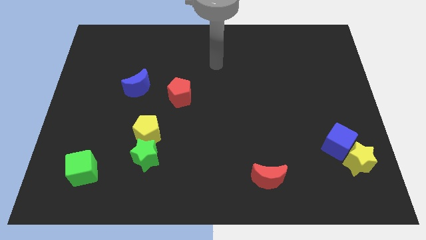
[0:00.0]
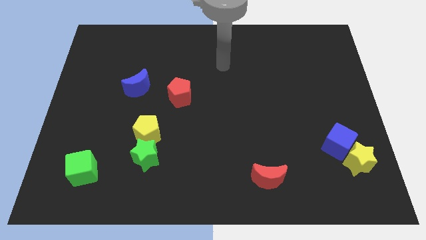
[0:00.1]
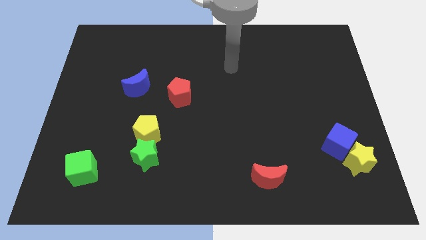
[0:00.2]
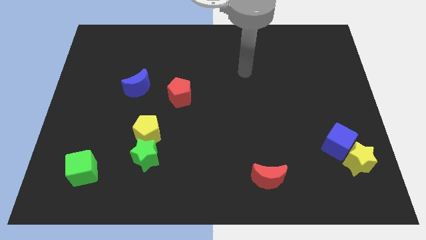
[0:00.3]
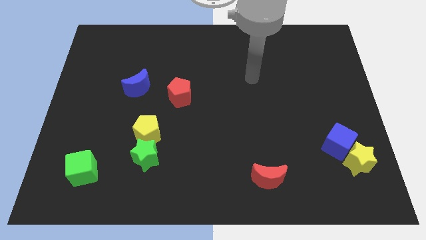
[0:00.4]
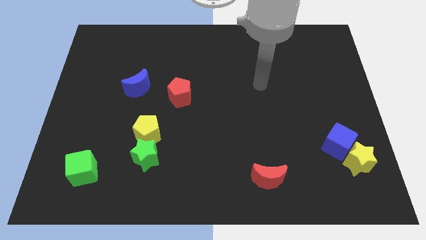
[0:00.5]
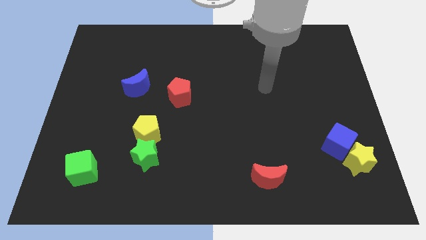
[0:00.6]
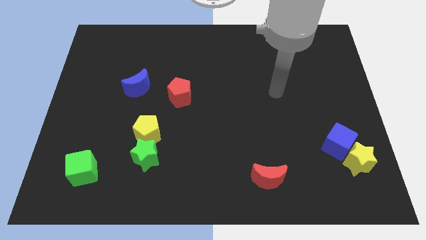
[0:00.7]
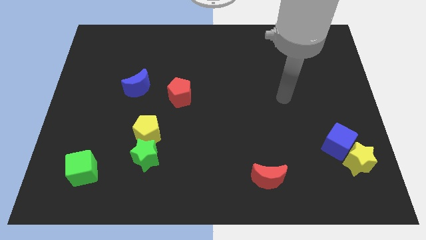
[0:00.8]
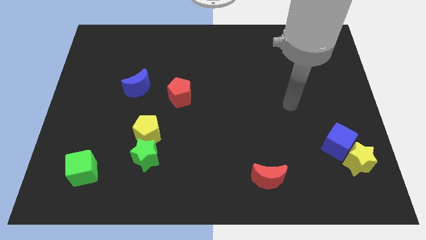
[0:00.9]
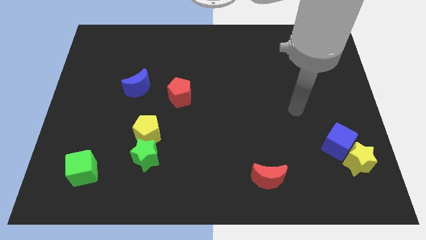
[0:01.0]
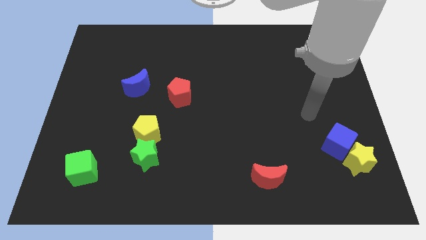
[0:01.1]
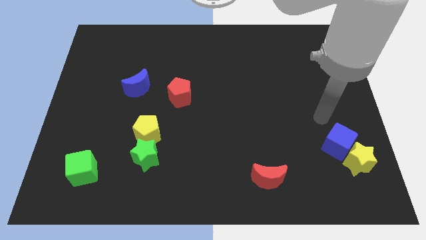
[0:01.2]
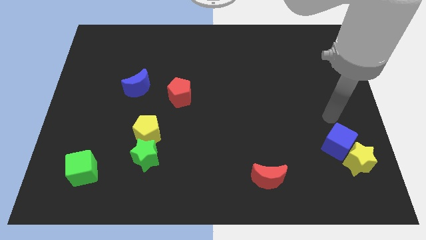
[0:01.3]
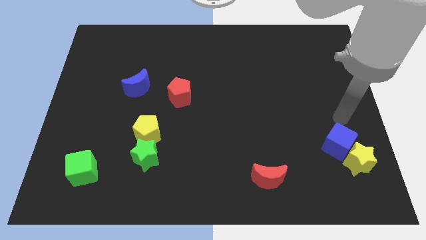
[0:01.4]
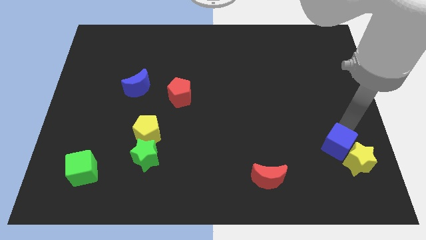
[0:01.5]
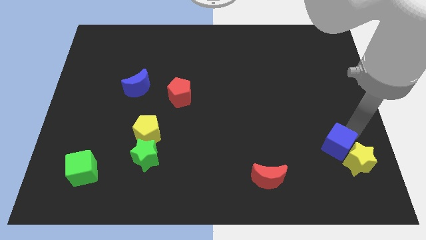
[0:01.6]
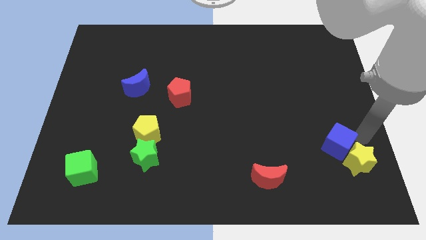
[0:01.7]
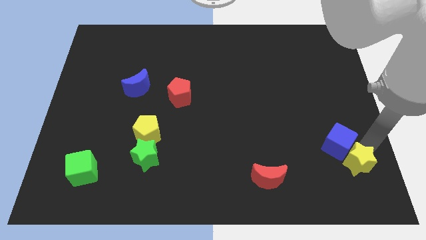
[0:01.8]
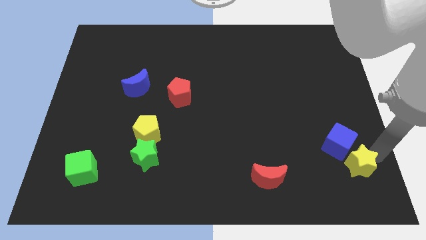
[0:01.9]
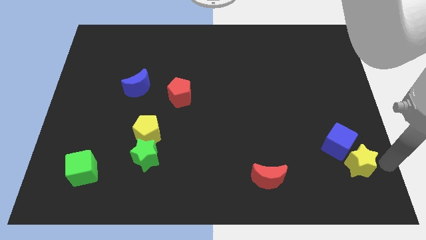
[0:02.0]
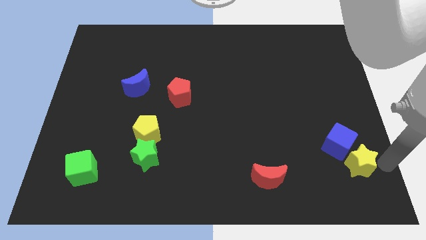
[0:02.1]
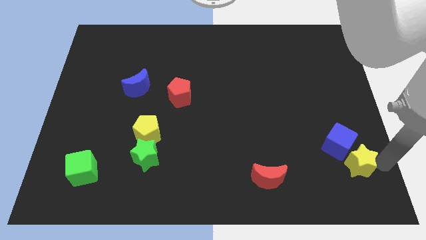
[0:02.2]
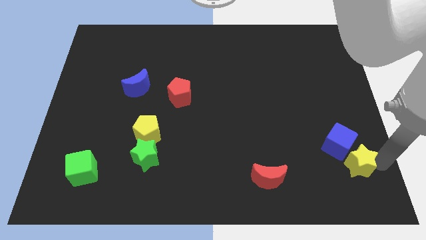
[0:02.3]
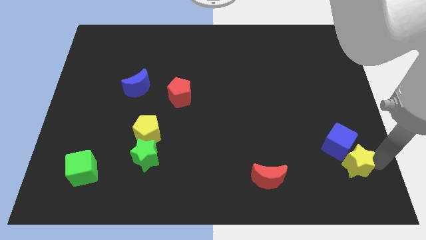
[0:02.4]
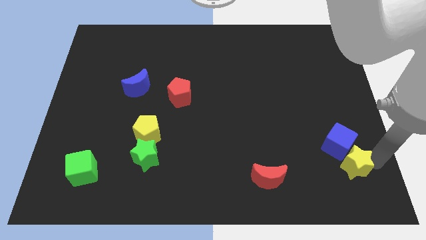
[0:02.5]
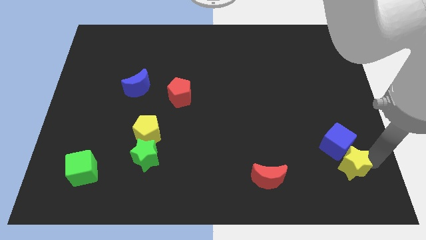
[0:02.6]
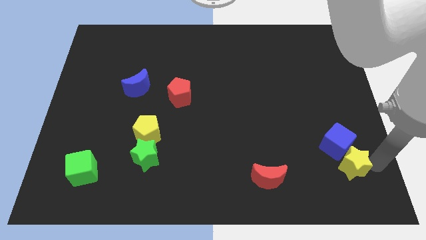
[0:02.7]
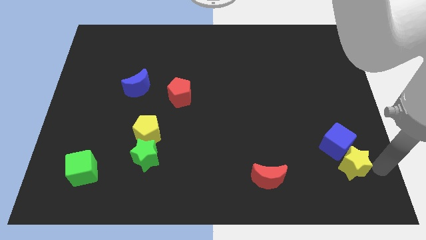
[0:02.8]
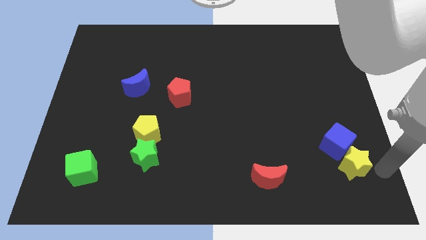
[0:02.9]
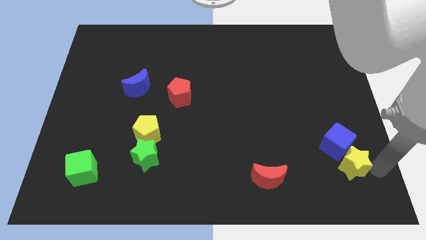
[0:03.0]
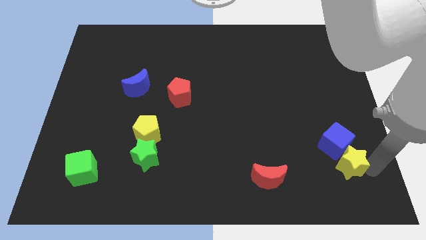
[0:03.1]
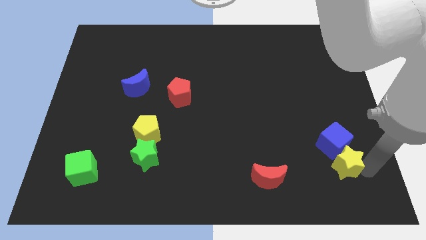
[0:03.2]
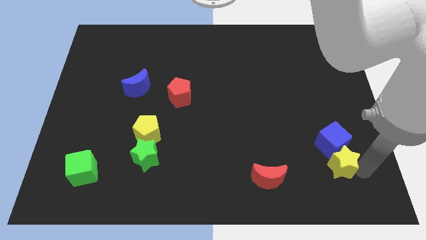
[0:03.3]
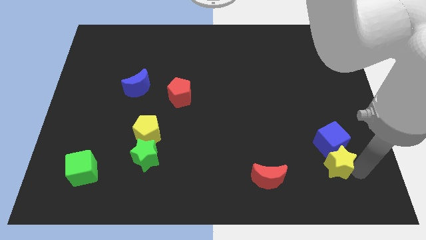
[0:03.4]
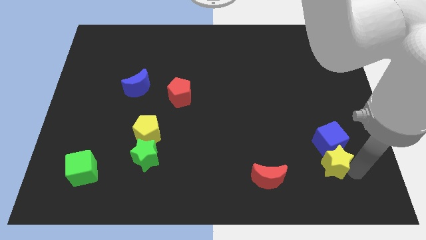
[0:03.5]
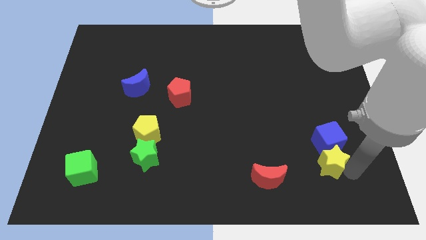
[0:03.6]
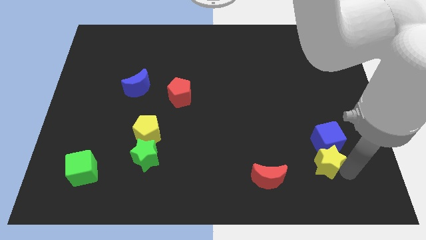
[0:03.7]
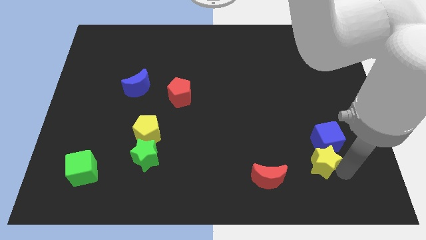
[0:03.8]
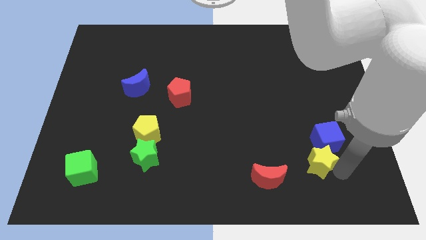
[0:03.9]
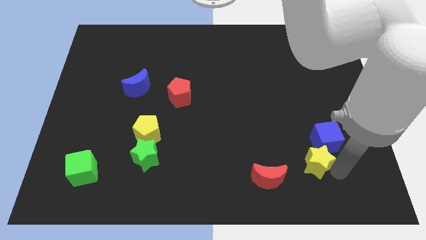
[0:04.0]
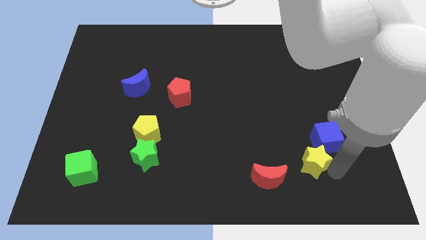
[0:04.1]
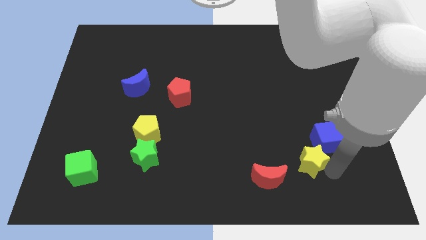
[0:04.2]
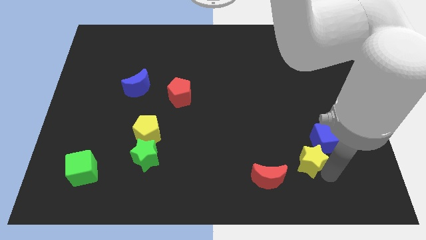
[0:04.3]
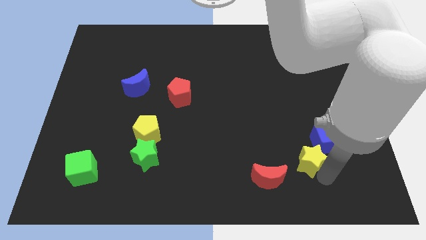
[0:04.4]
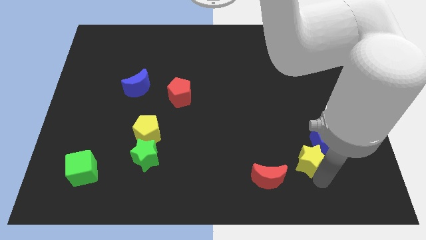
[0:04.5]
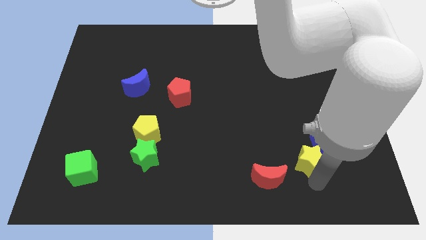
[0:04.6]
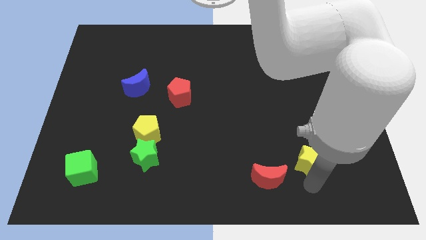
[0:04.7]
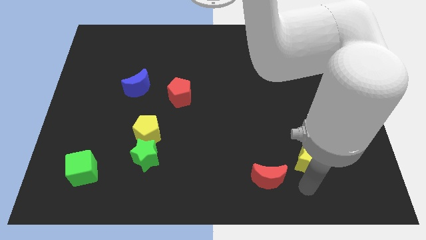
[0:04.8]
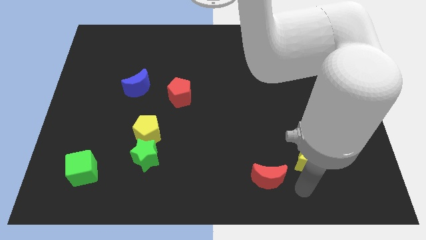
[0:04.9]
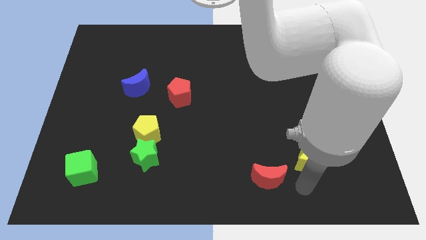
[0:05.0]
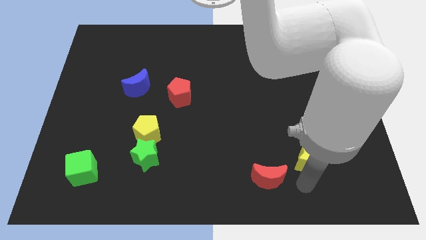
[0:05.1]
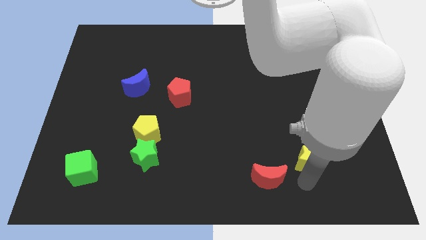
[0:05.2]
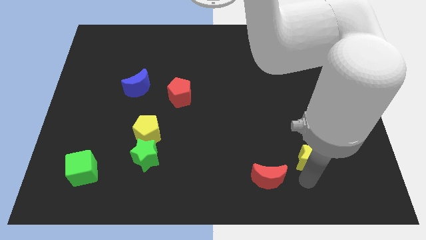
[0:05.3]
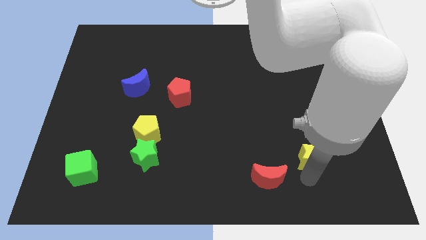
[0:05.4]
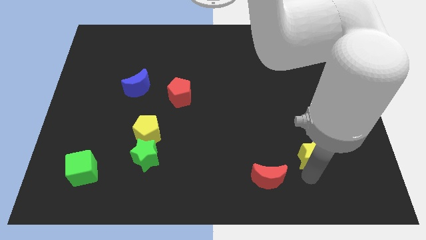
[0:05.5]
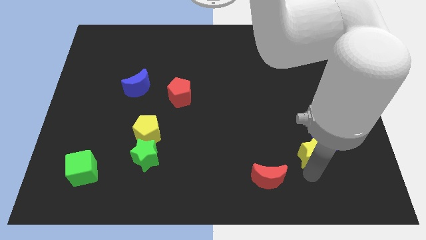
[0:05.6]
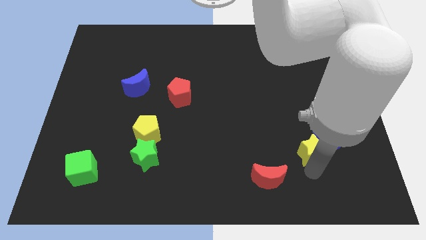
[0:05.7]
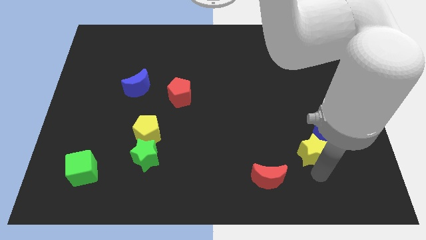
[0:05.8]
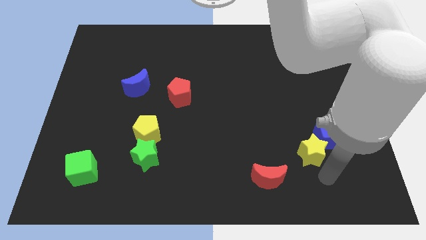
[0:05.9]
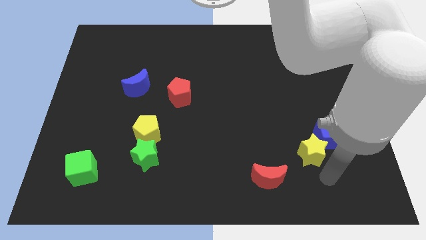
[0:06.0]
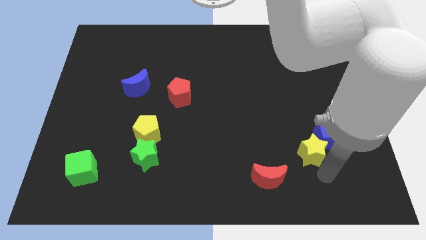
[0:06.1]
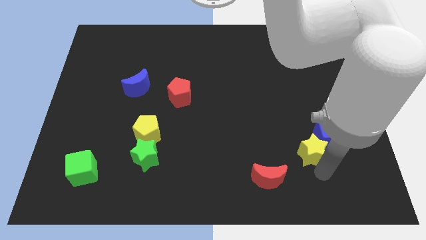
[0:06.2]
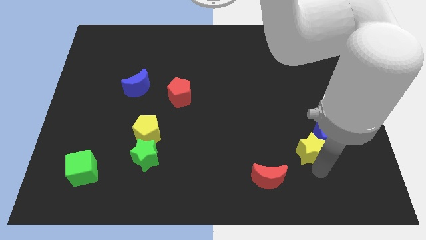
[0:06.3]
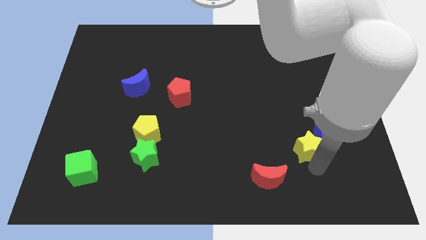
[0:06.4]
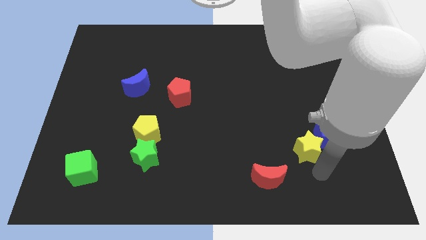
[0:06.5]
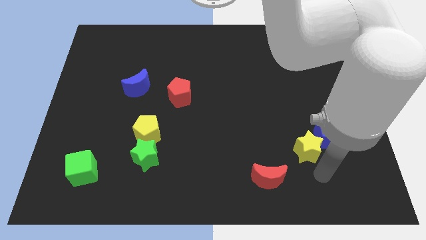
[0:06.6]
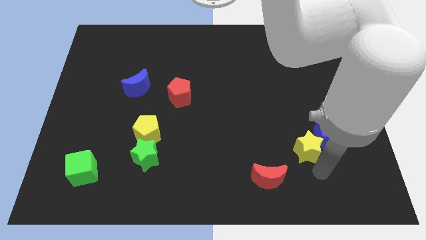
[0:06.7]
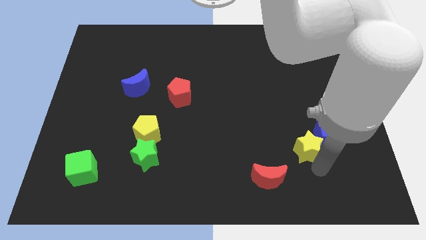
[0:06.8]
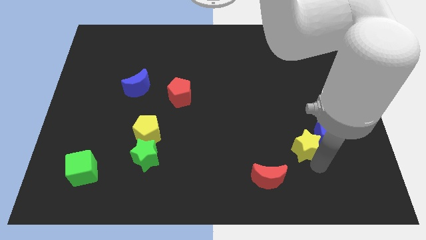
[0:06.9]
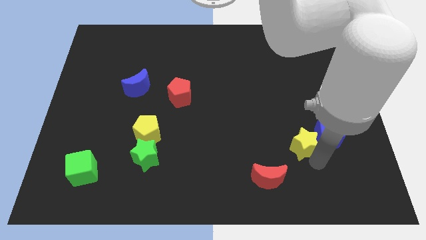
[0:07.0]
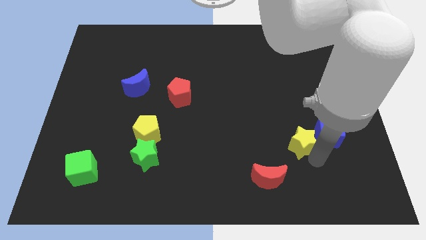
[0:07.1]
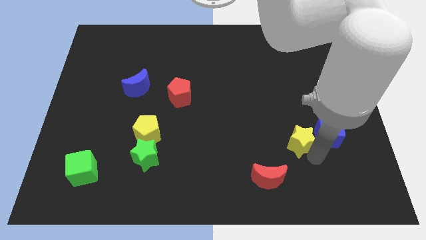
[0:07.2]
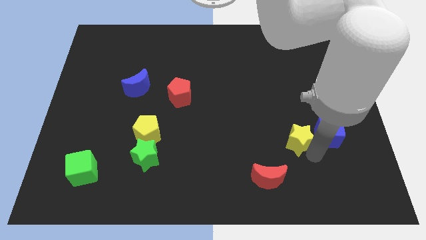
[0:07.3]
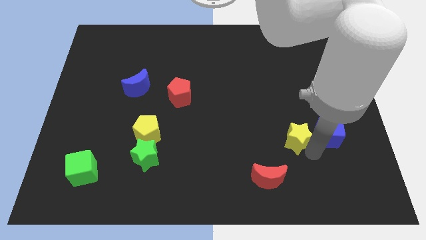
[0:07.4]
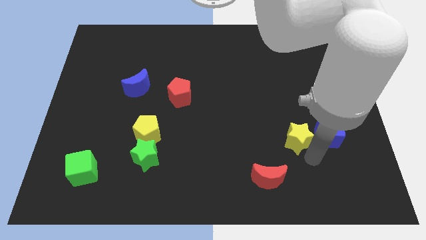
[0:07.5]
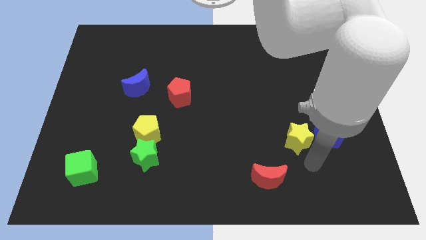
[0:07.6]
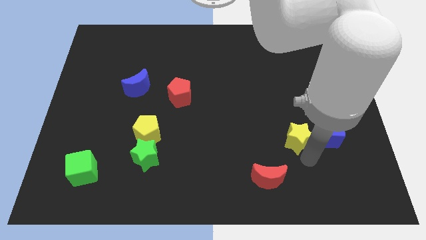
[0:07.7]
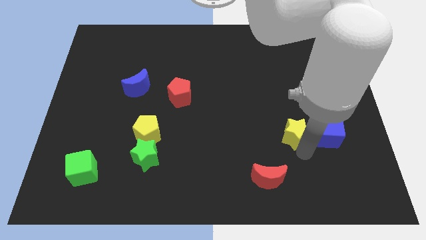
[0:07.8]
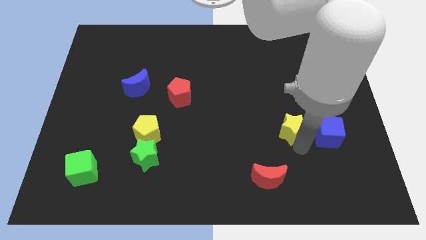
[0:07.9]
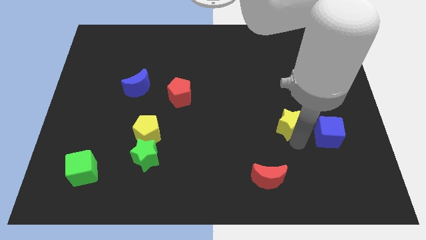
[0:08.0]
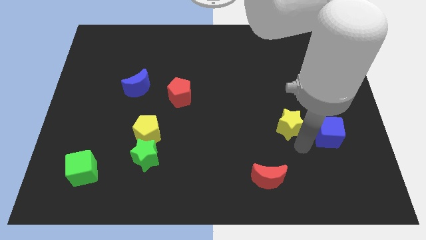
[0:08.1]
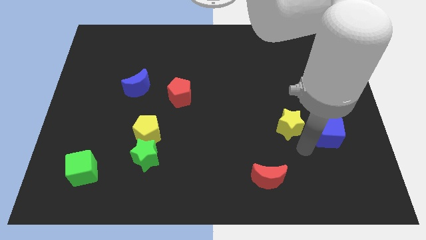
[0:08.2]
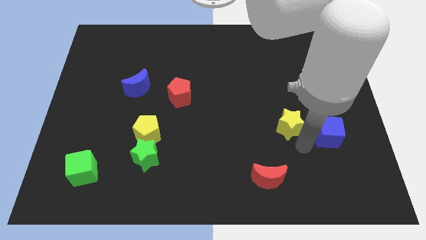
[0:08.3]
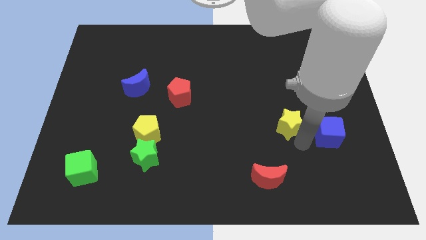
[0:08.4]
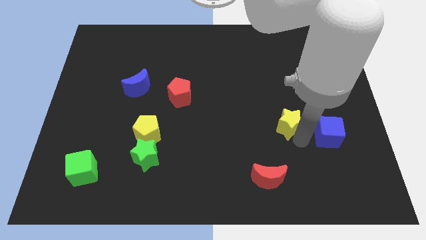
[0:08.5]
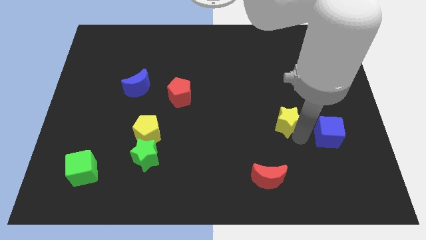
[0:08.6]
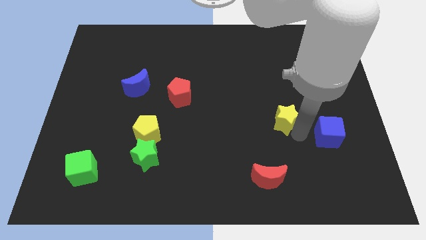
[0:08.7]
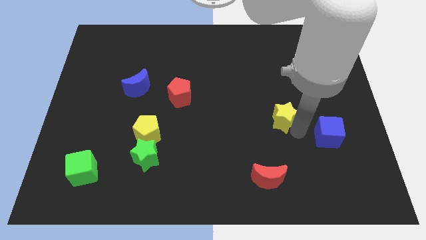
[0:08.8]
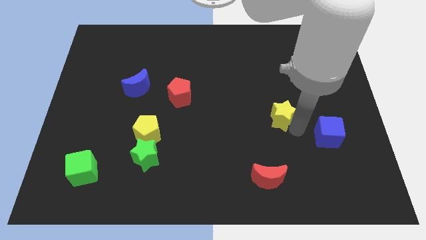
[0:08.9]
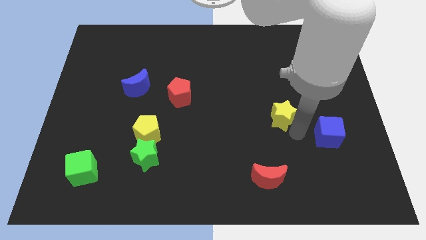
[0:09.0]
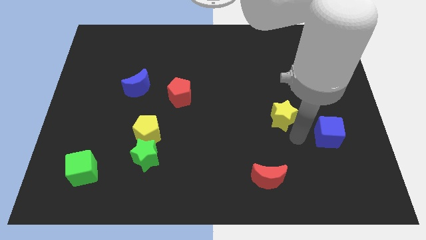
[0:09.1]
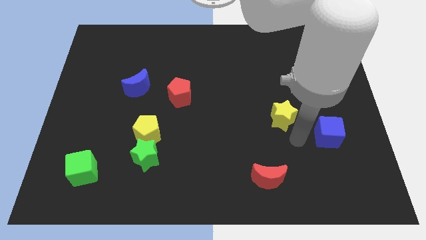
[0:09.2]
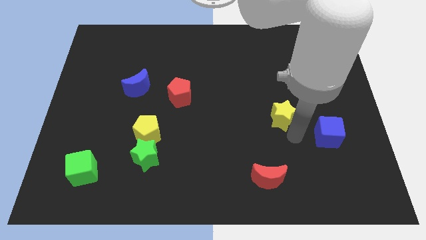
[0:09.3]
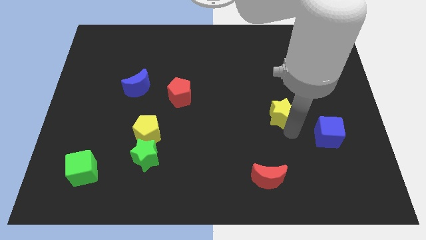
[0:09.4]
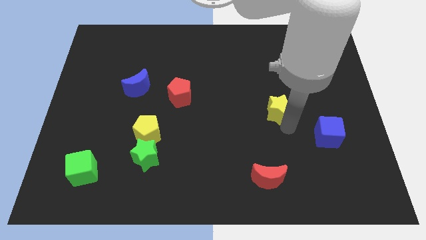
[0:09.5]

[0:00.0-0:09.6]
push the yellow star diagonally upwards and left
